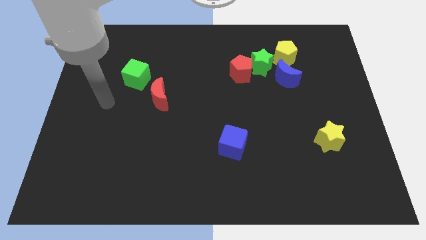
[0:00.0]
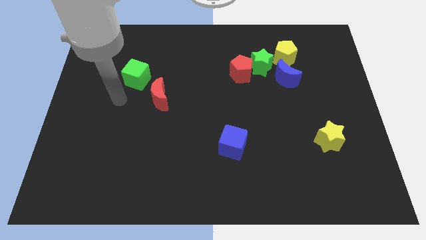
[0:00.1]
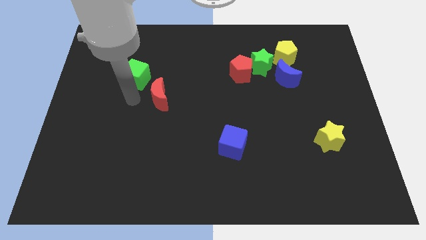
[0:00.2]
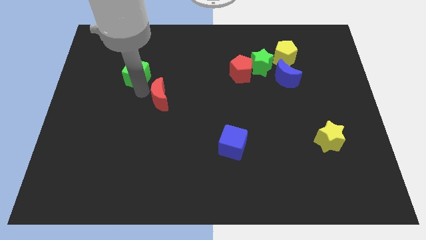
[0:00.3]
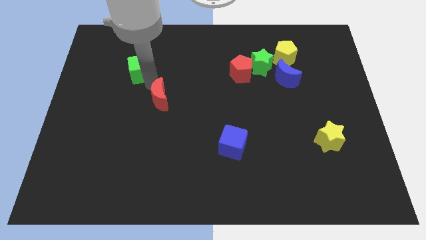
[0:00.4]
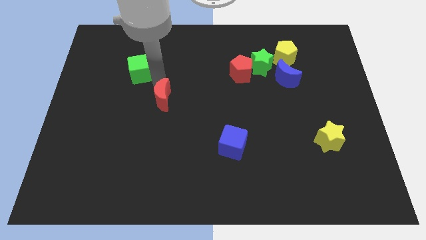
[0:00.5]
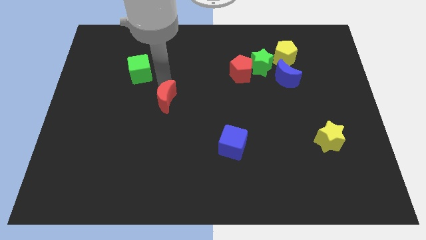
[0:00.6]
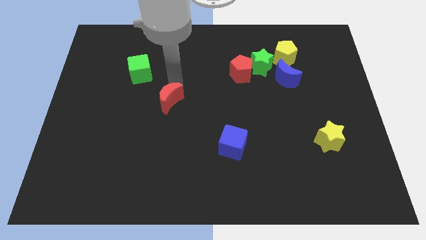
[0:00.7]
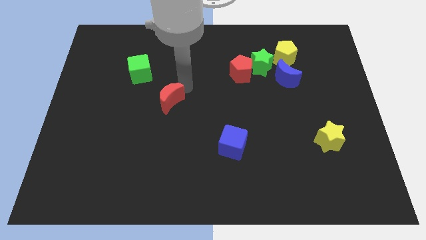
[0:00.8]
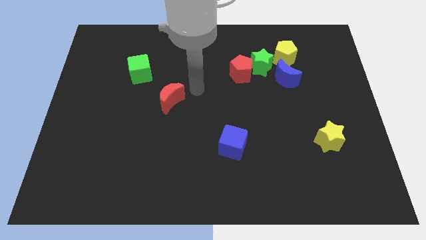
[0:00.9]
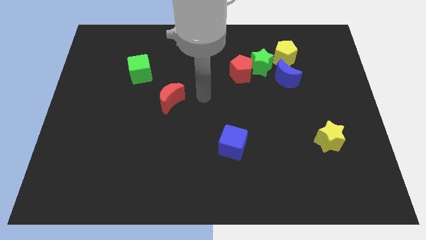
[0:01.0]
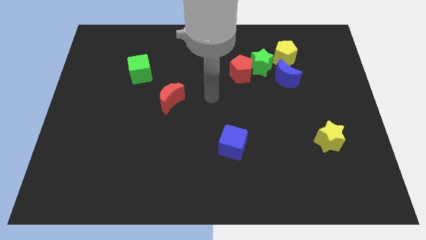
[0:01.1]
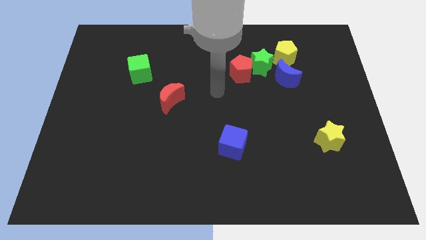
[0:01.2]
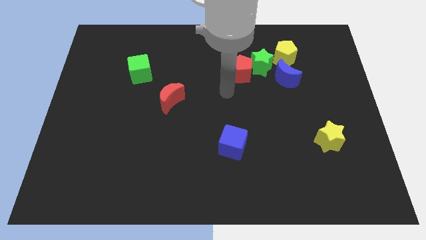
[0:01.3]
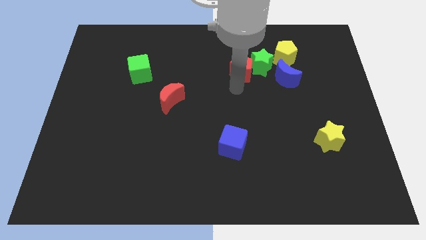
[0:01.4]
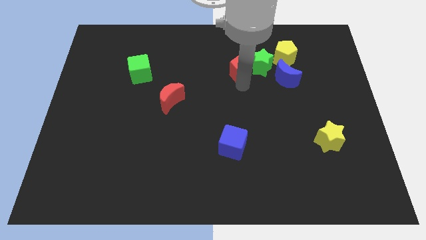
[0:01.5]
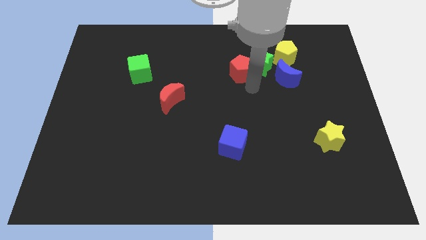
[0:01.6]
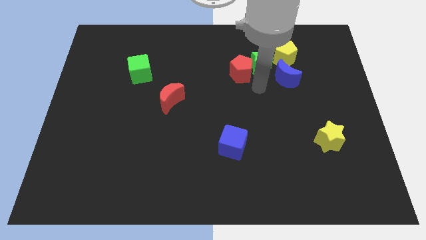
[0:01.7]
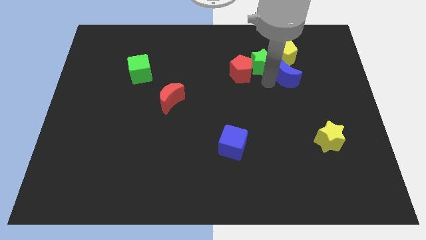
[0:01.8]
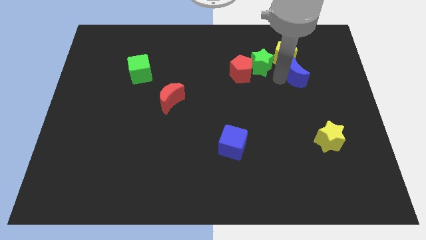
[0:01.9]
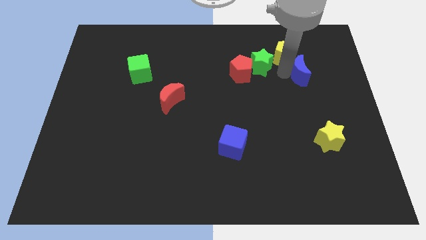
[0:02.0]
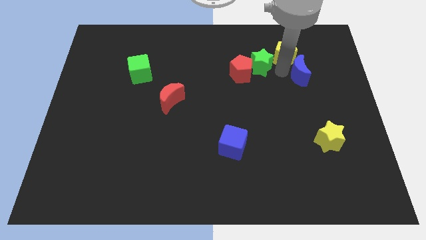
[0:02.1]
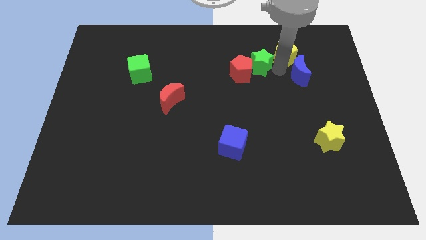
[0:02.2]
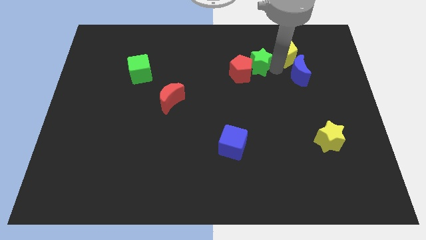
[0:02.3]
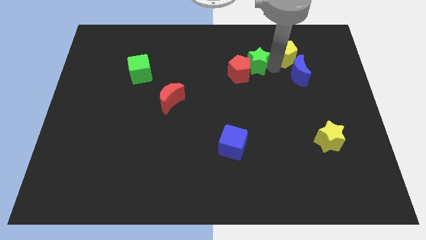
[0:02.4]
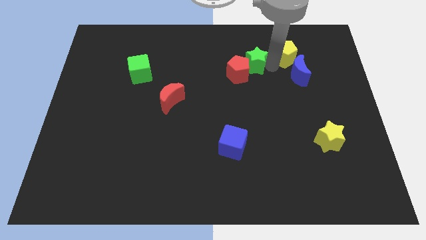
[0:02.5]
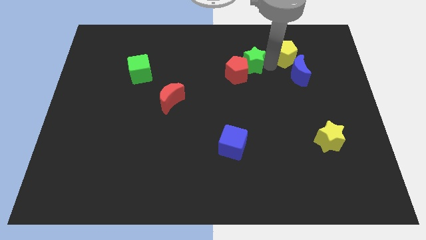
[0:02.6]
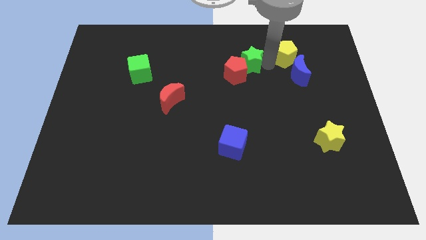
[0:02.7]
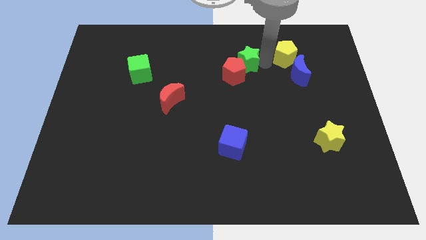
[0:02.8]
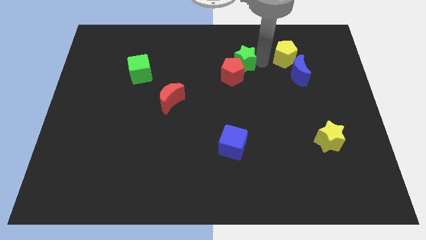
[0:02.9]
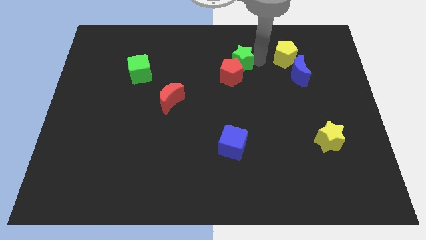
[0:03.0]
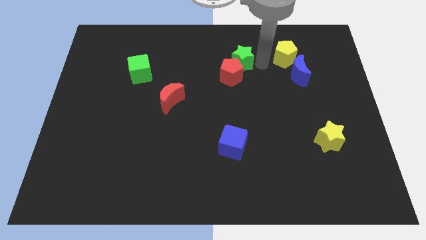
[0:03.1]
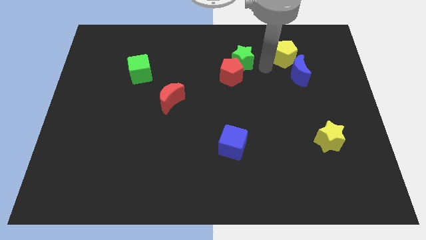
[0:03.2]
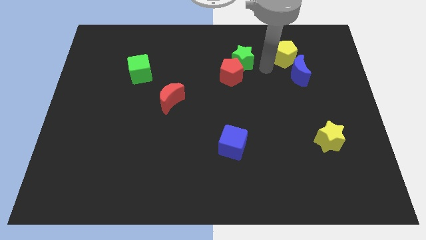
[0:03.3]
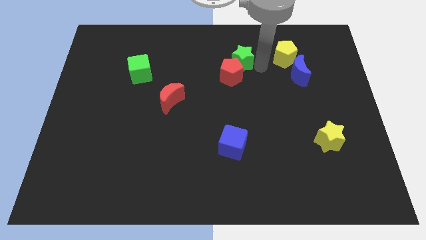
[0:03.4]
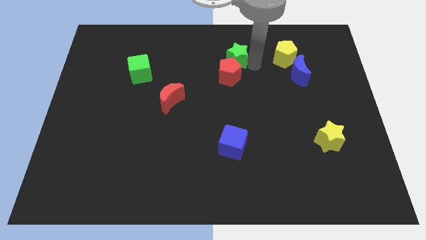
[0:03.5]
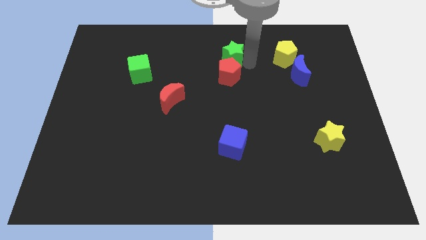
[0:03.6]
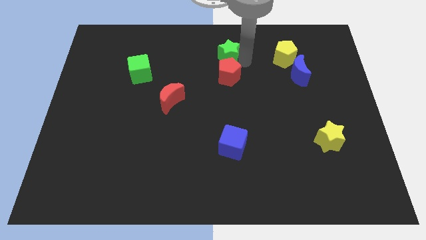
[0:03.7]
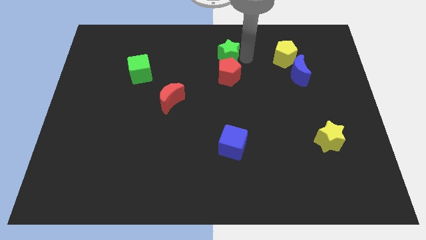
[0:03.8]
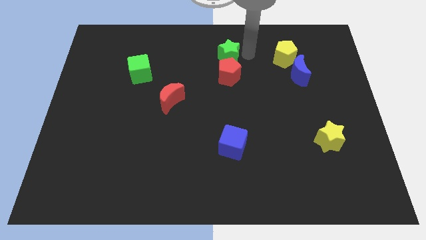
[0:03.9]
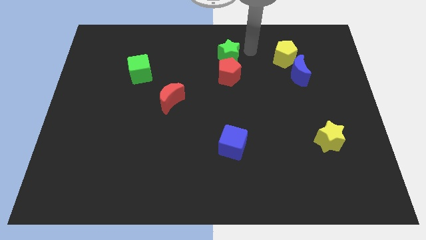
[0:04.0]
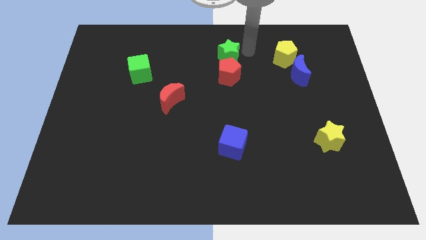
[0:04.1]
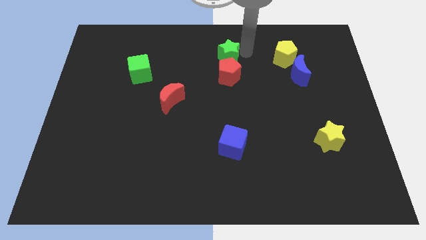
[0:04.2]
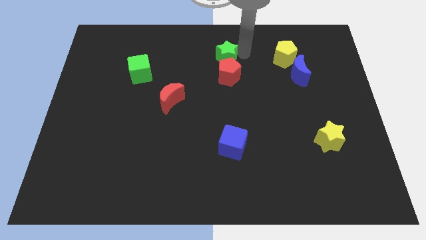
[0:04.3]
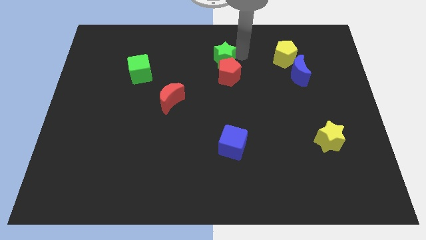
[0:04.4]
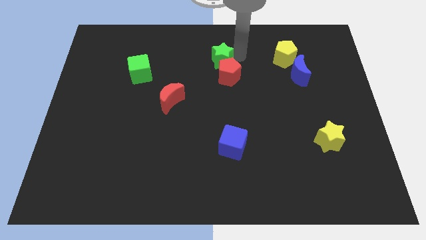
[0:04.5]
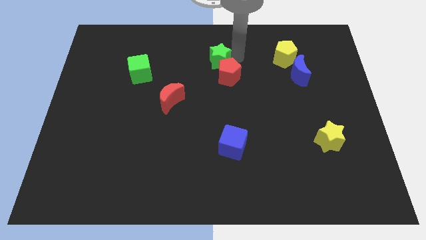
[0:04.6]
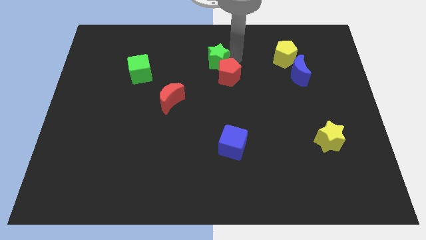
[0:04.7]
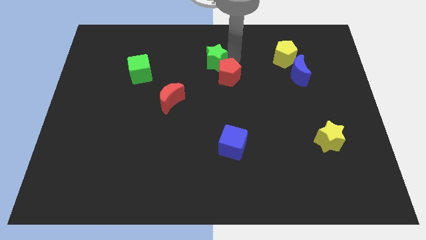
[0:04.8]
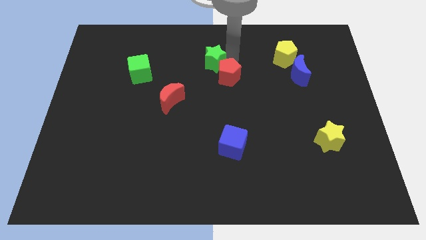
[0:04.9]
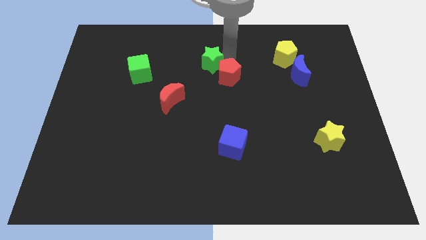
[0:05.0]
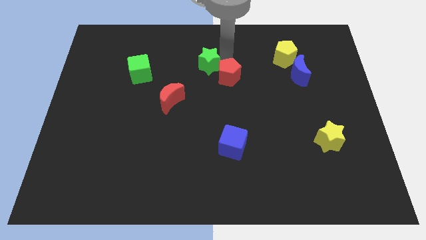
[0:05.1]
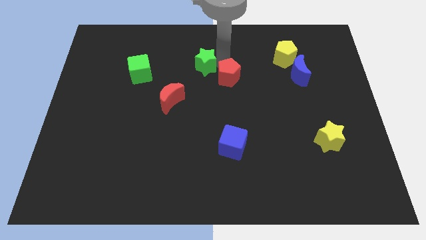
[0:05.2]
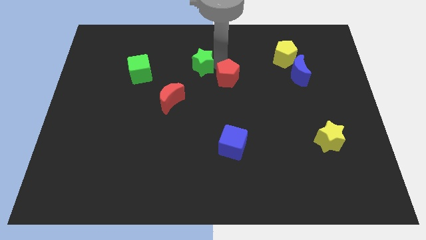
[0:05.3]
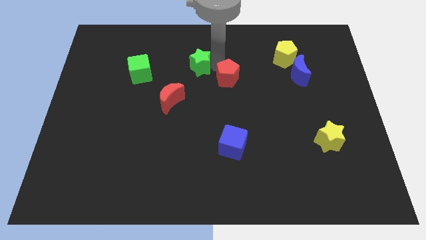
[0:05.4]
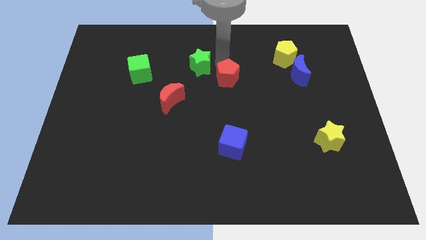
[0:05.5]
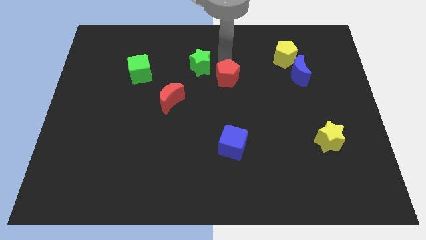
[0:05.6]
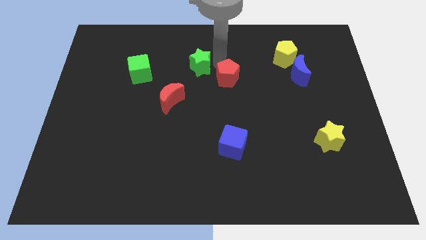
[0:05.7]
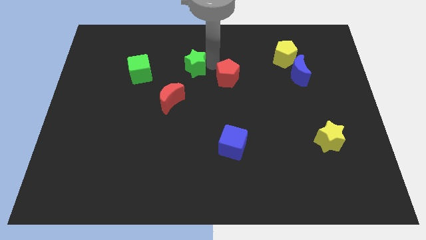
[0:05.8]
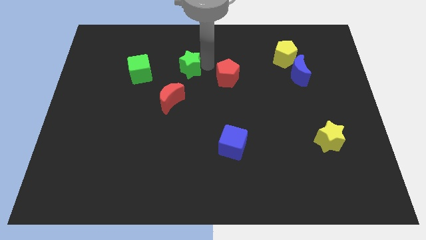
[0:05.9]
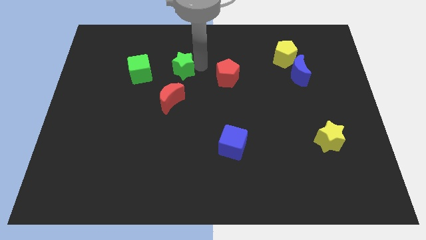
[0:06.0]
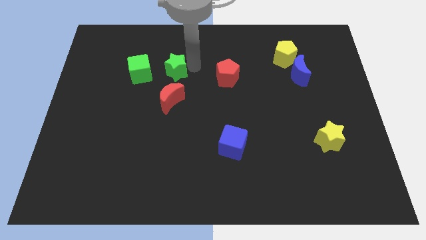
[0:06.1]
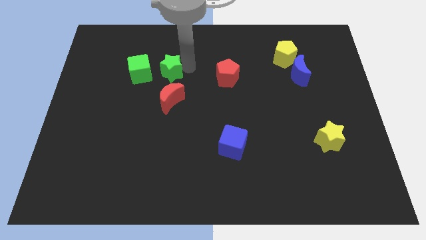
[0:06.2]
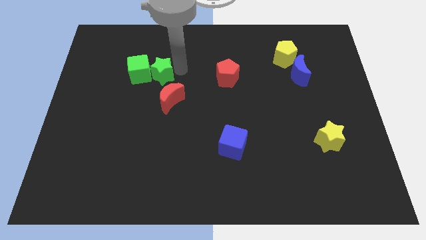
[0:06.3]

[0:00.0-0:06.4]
push the green star to the green cube

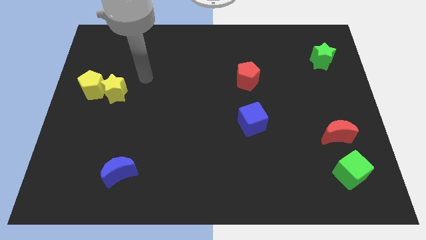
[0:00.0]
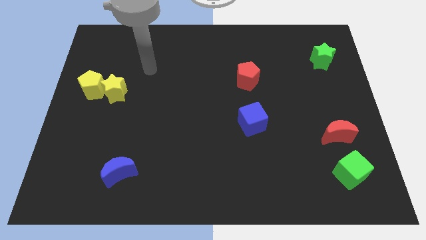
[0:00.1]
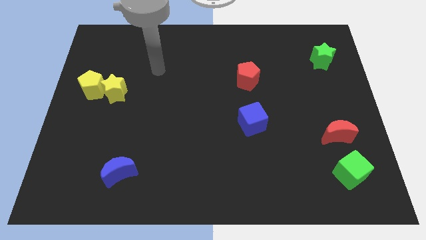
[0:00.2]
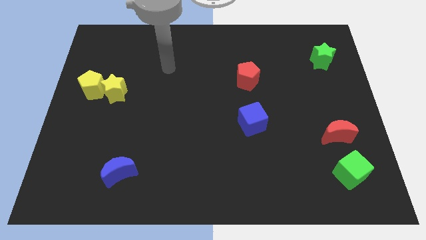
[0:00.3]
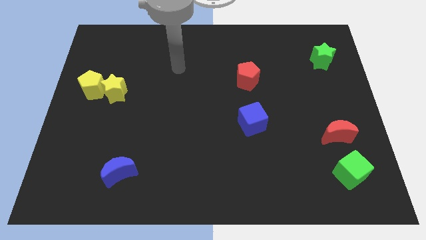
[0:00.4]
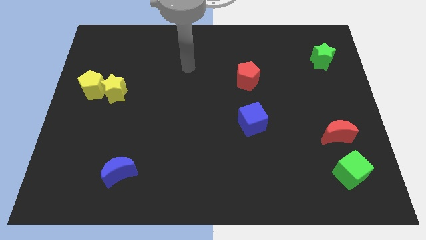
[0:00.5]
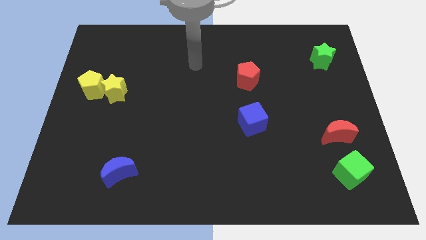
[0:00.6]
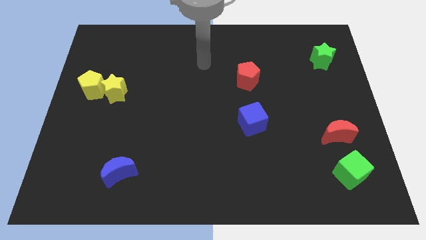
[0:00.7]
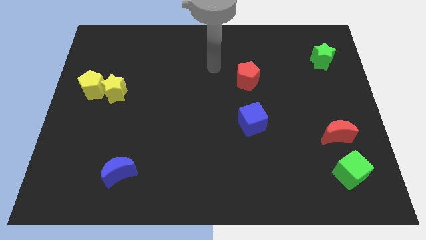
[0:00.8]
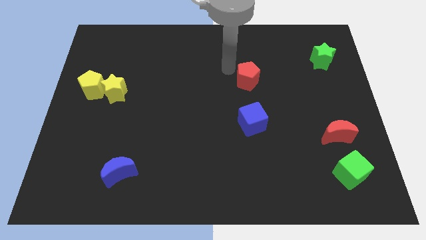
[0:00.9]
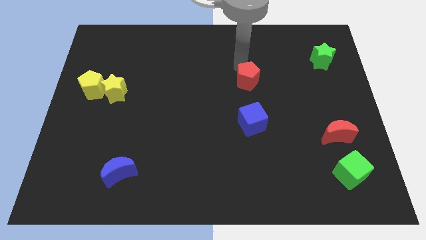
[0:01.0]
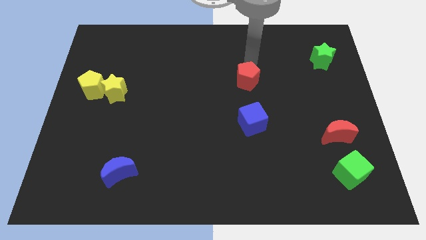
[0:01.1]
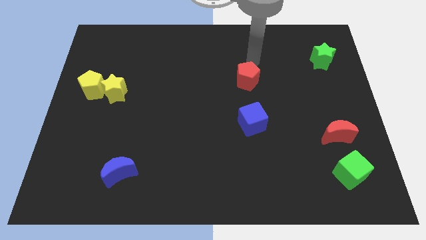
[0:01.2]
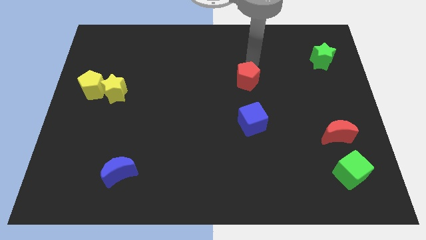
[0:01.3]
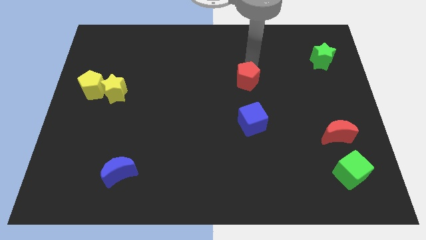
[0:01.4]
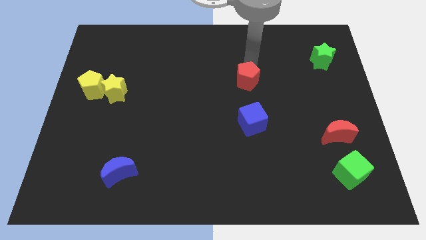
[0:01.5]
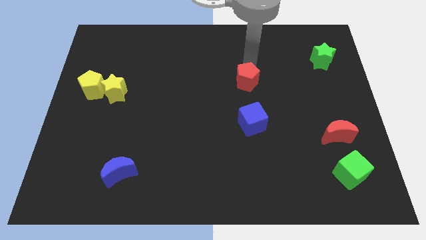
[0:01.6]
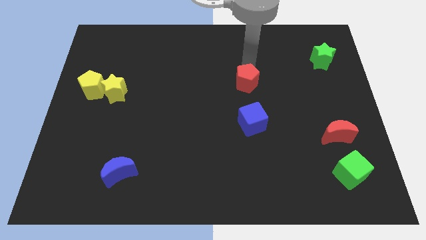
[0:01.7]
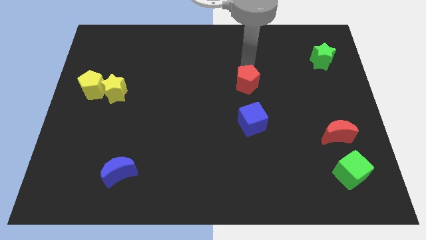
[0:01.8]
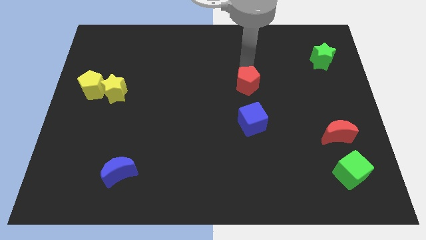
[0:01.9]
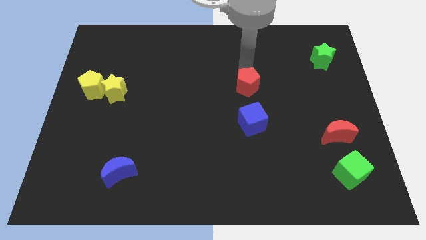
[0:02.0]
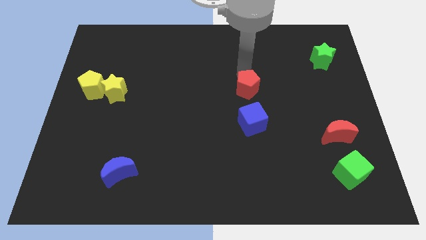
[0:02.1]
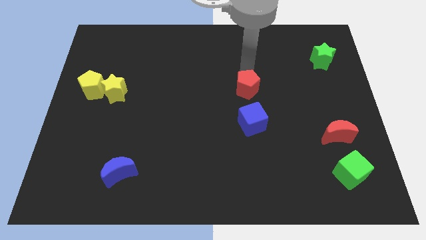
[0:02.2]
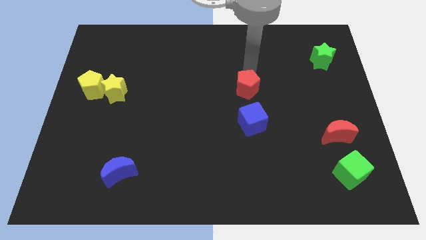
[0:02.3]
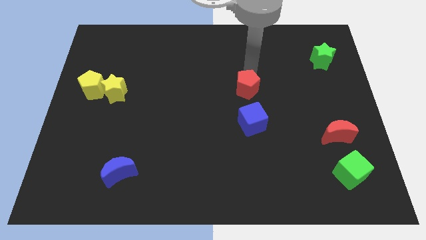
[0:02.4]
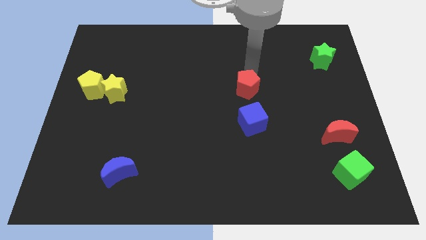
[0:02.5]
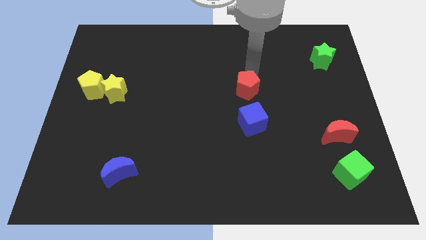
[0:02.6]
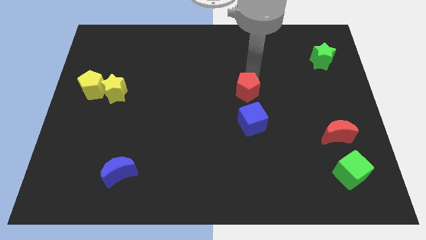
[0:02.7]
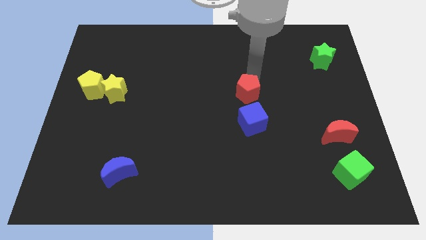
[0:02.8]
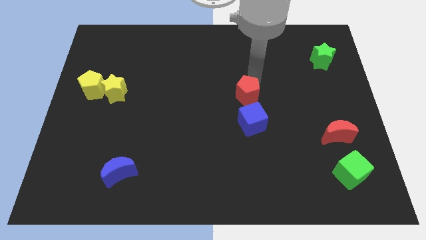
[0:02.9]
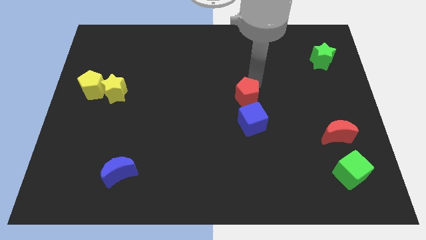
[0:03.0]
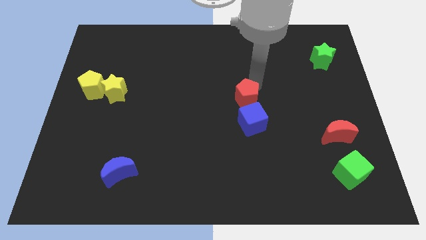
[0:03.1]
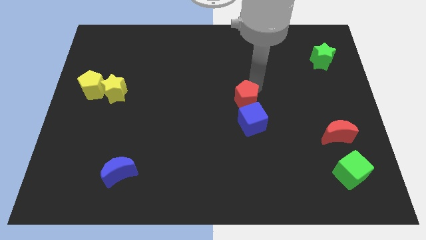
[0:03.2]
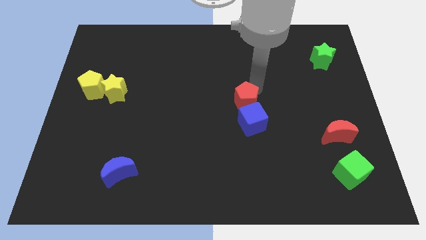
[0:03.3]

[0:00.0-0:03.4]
move the red pentagon towards the blue cube
